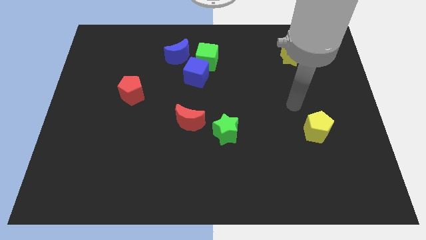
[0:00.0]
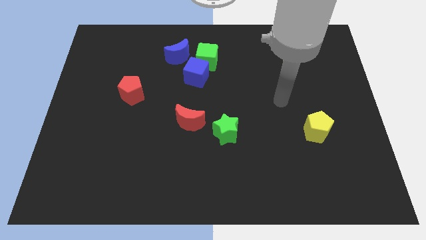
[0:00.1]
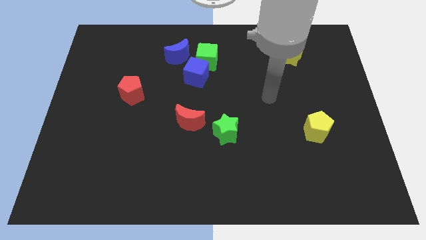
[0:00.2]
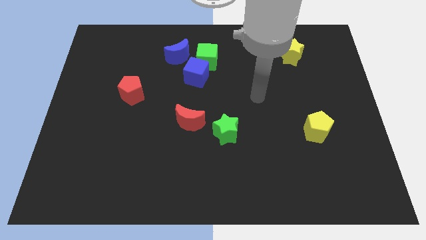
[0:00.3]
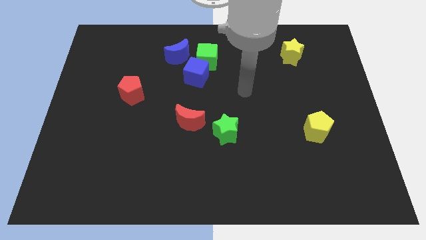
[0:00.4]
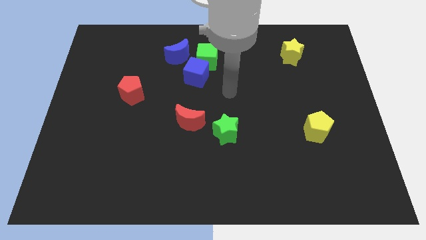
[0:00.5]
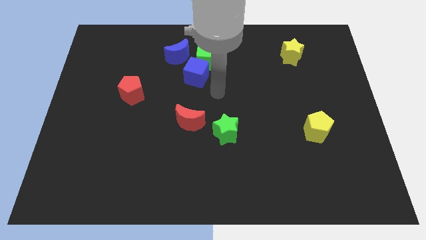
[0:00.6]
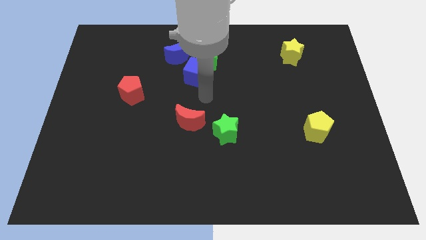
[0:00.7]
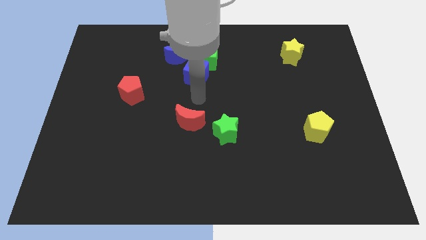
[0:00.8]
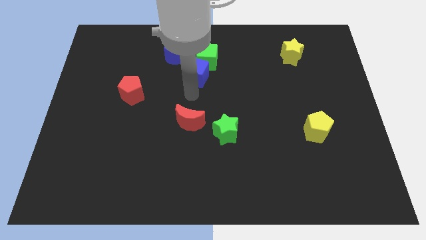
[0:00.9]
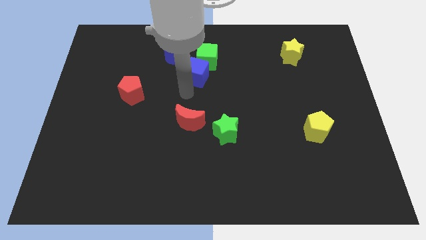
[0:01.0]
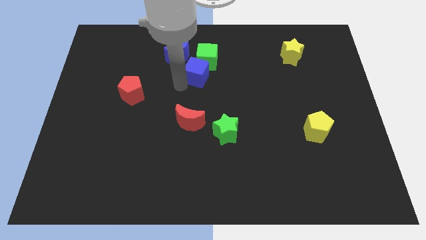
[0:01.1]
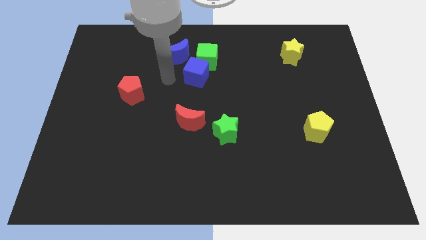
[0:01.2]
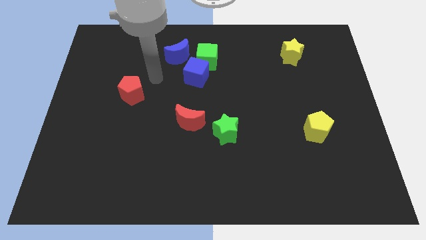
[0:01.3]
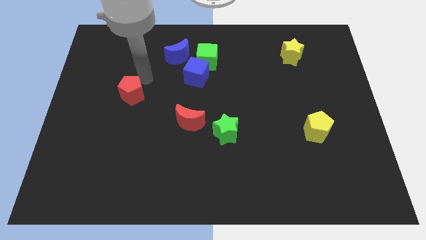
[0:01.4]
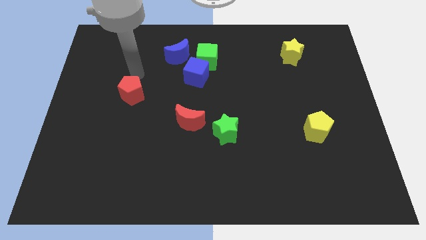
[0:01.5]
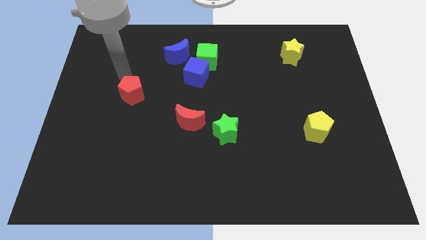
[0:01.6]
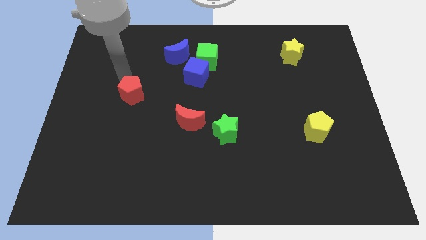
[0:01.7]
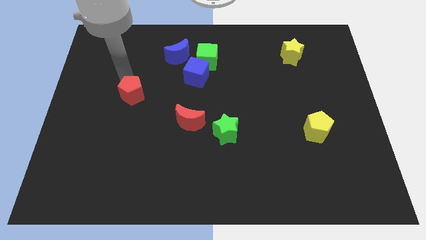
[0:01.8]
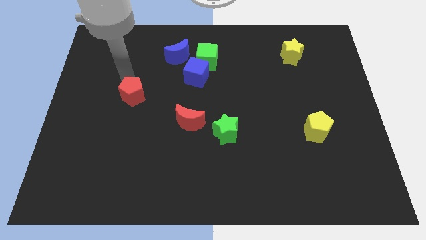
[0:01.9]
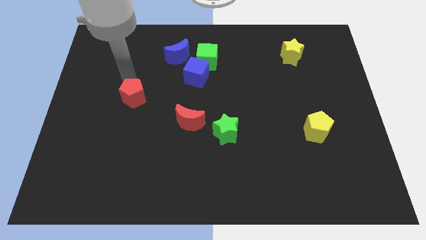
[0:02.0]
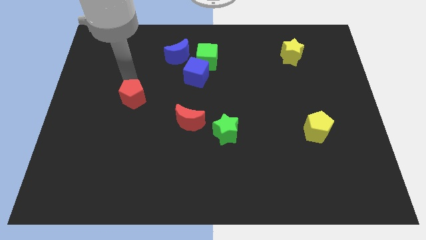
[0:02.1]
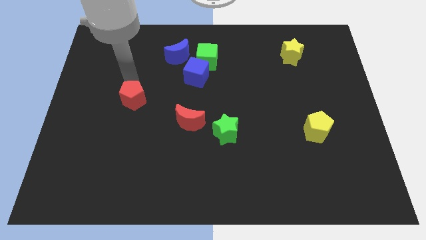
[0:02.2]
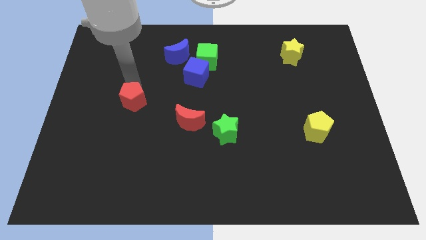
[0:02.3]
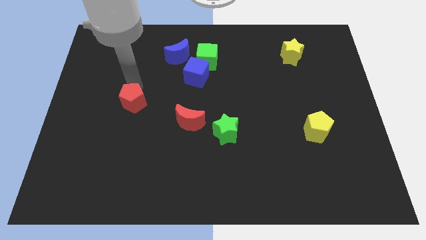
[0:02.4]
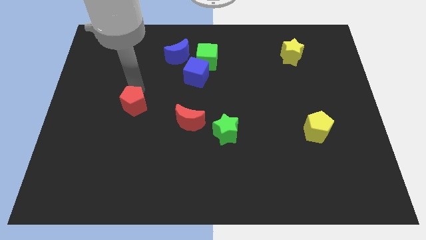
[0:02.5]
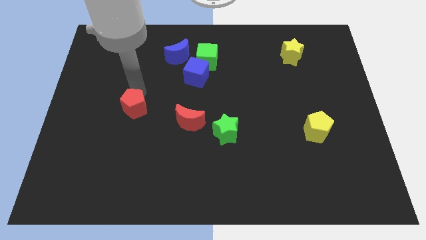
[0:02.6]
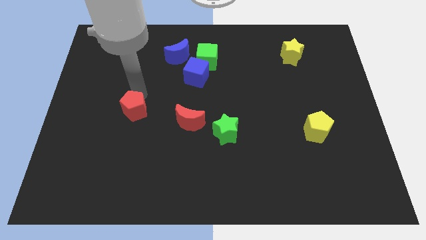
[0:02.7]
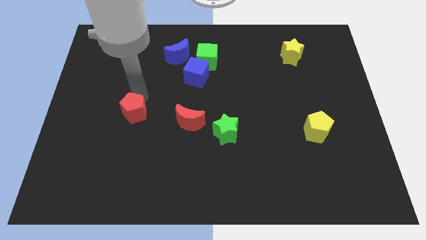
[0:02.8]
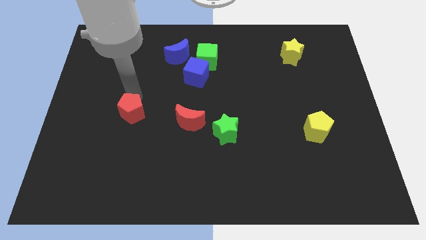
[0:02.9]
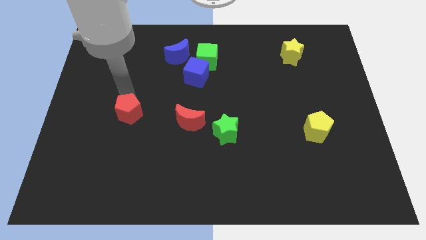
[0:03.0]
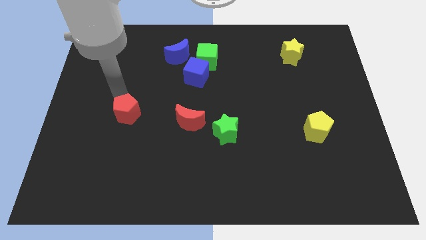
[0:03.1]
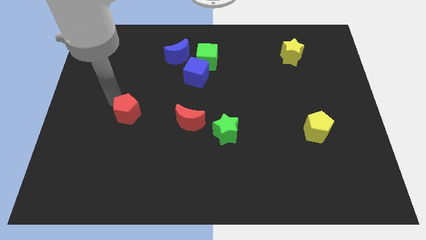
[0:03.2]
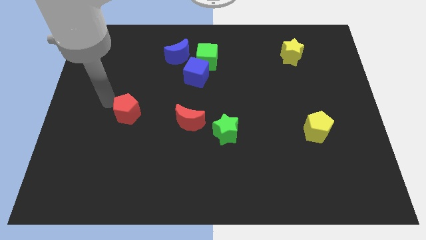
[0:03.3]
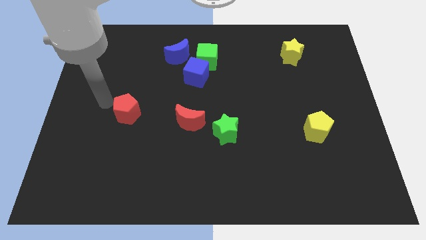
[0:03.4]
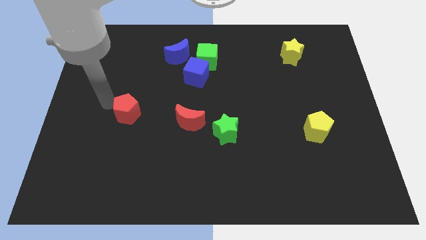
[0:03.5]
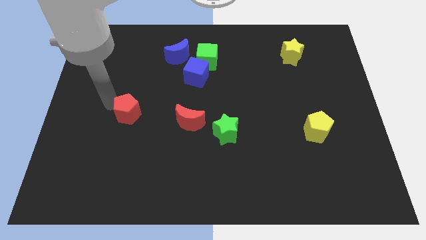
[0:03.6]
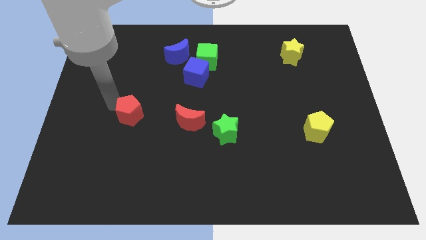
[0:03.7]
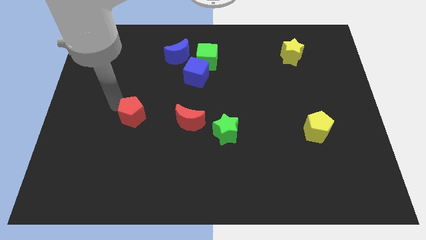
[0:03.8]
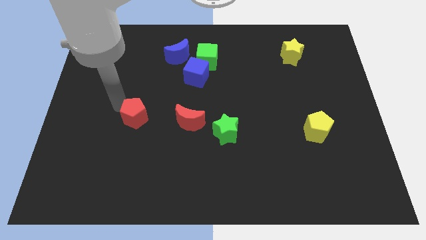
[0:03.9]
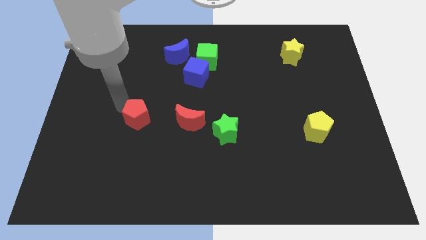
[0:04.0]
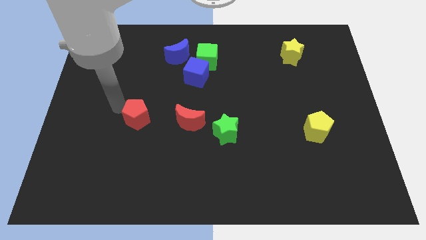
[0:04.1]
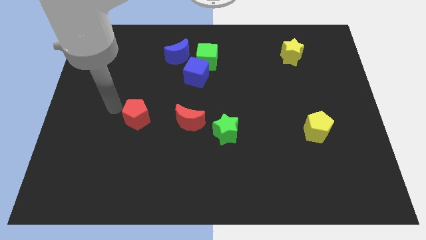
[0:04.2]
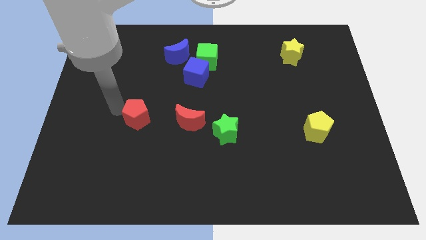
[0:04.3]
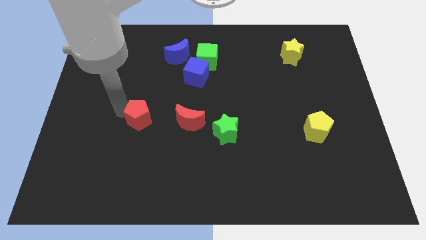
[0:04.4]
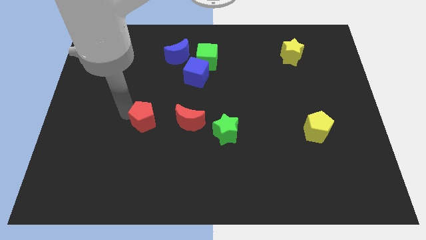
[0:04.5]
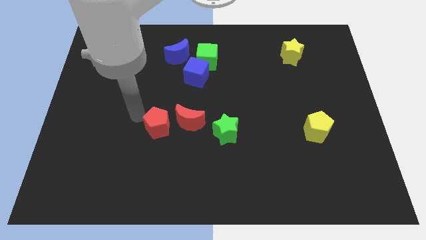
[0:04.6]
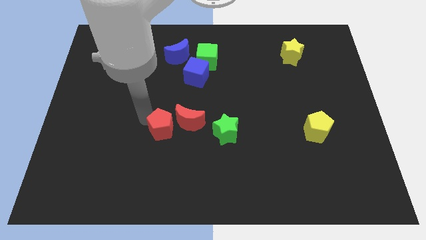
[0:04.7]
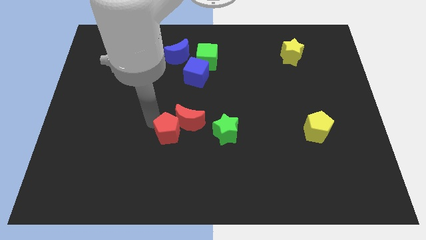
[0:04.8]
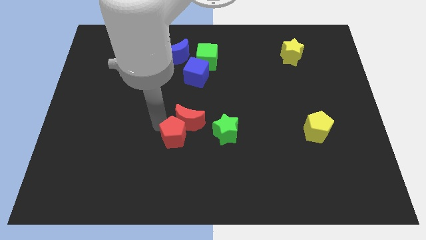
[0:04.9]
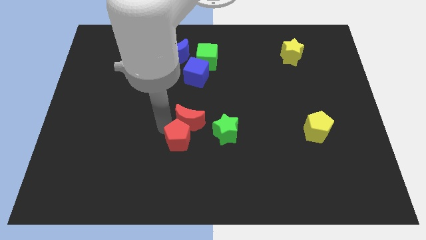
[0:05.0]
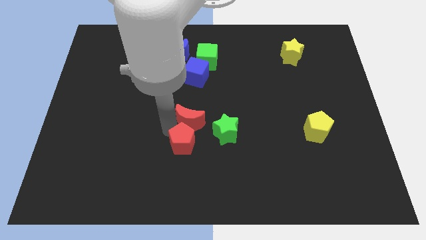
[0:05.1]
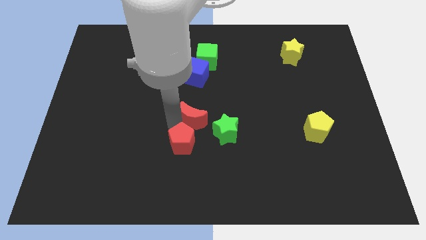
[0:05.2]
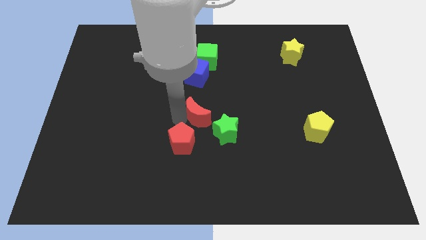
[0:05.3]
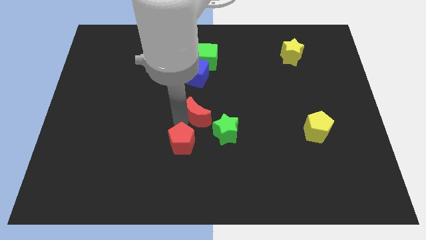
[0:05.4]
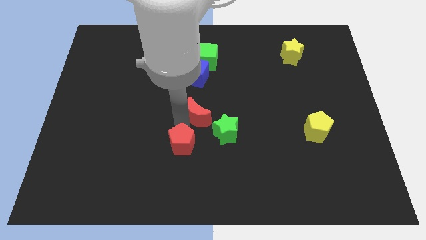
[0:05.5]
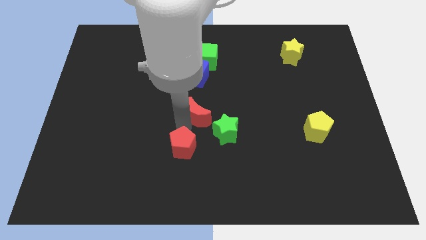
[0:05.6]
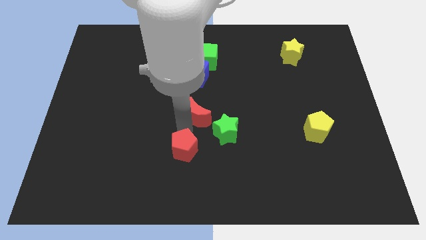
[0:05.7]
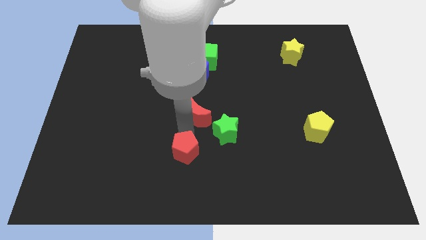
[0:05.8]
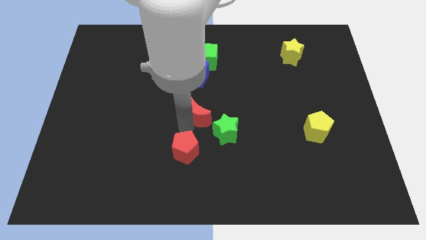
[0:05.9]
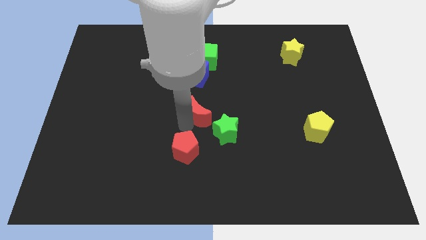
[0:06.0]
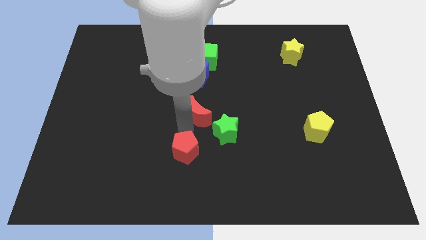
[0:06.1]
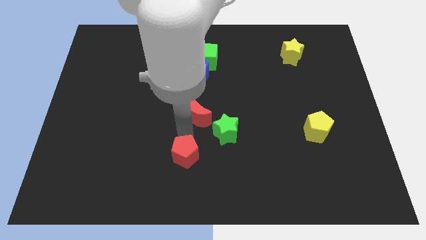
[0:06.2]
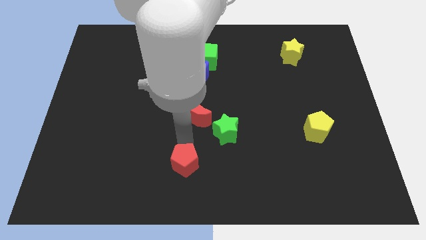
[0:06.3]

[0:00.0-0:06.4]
slide the red pentagon to the bottom side
